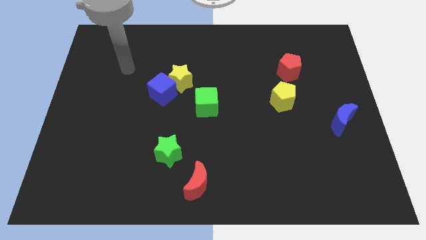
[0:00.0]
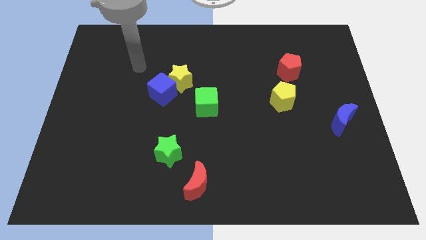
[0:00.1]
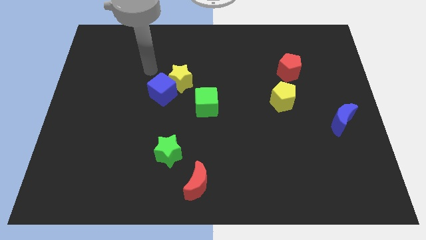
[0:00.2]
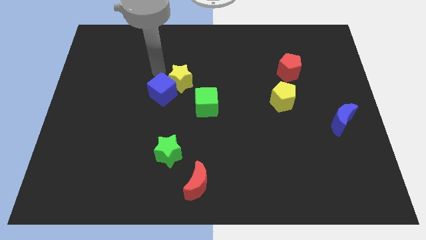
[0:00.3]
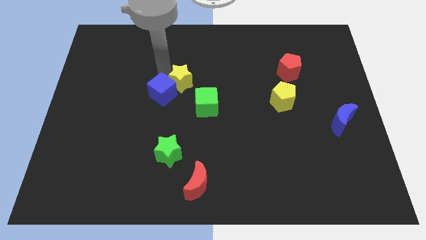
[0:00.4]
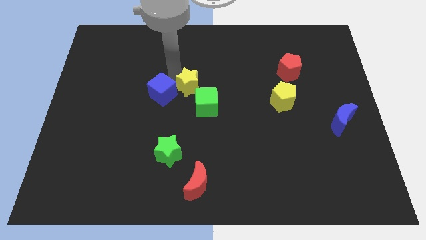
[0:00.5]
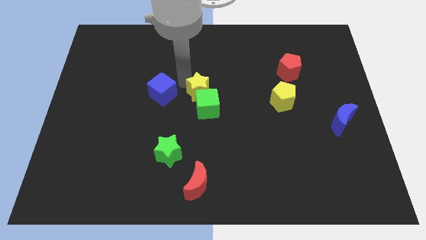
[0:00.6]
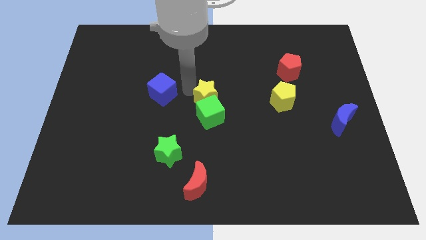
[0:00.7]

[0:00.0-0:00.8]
move the blue cube away from the yellow star

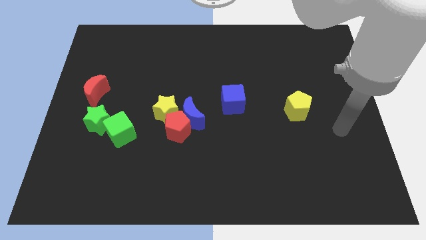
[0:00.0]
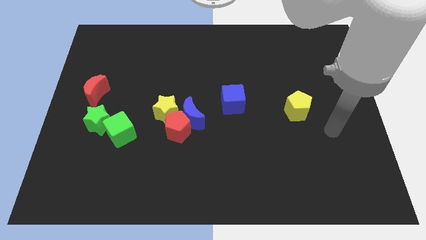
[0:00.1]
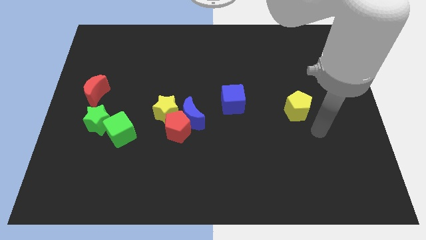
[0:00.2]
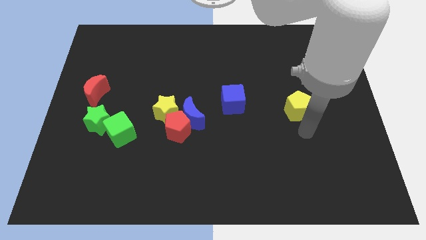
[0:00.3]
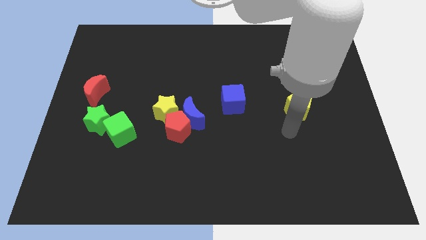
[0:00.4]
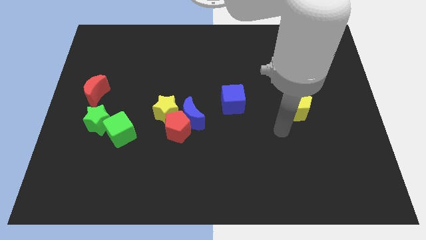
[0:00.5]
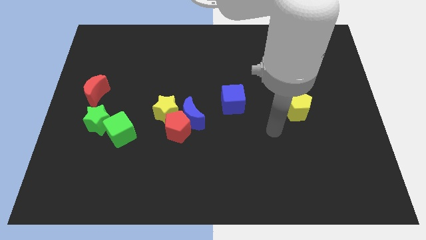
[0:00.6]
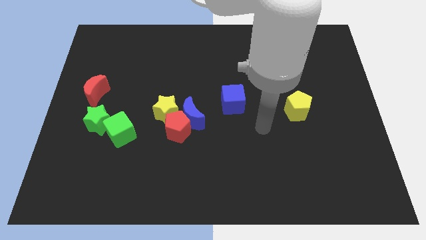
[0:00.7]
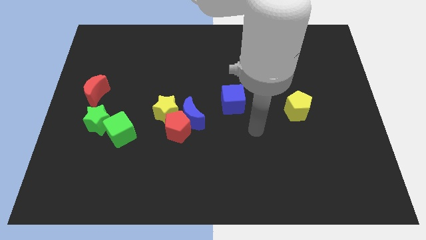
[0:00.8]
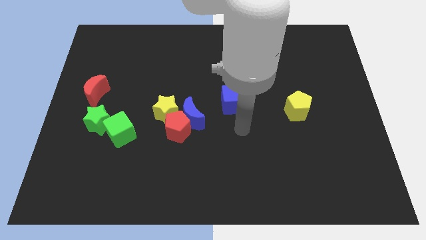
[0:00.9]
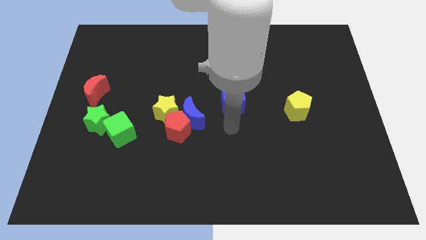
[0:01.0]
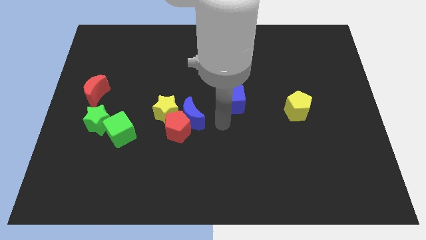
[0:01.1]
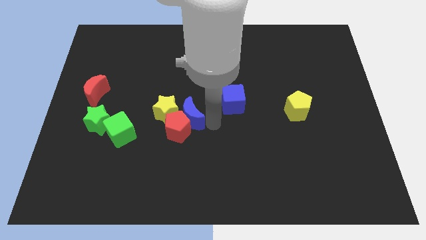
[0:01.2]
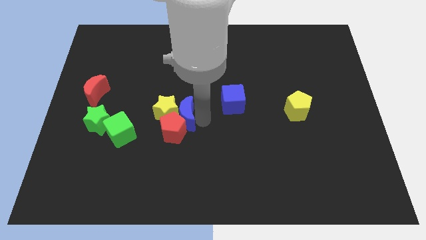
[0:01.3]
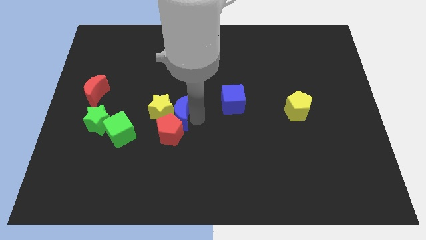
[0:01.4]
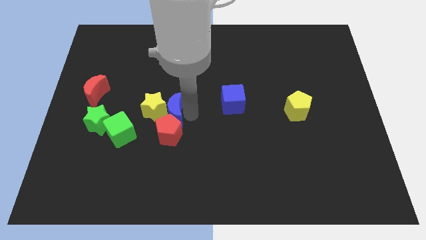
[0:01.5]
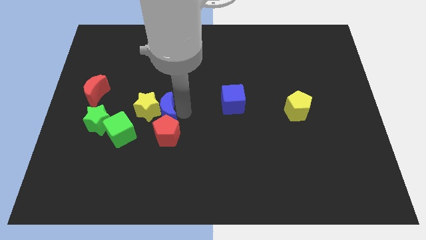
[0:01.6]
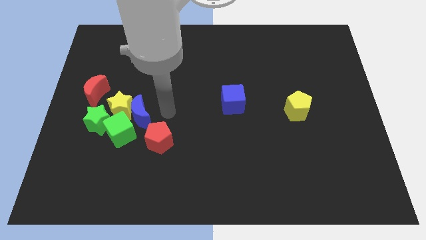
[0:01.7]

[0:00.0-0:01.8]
move the red pentagon away from the blue moon and yellow star

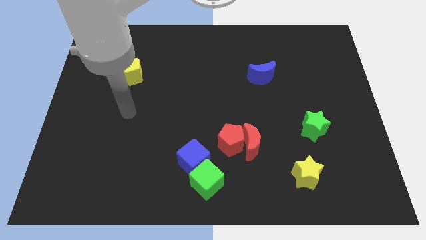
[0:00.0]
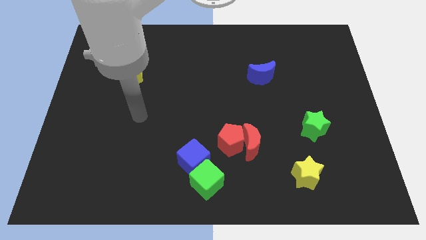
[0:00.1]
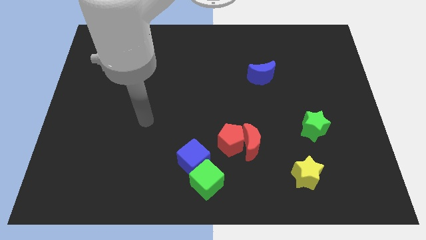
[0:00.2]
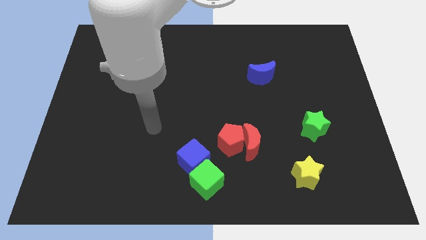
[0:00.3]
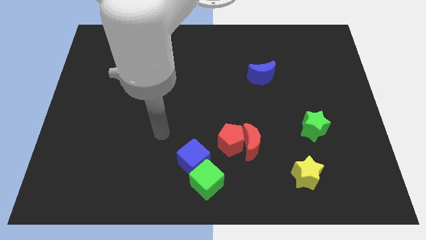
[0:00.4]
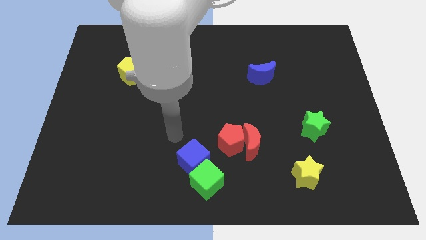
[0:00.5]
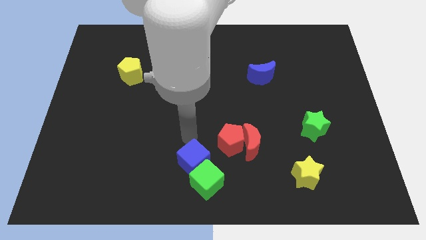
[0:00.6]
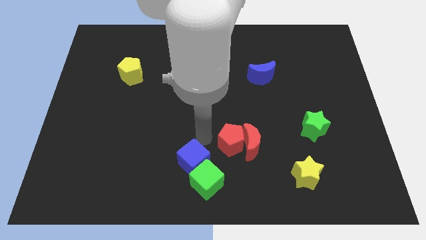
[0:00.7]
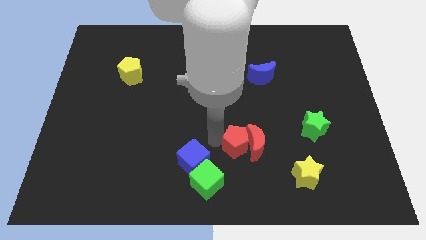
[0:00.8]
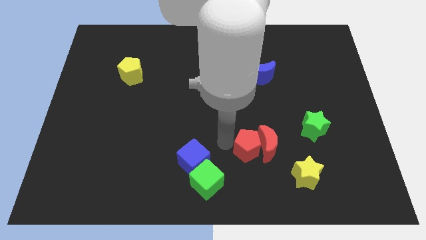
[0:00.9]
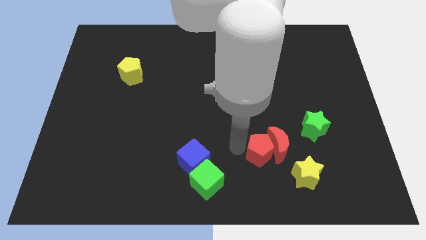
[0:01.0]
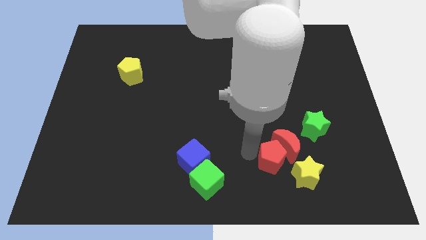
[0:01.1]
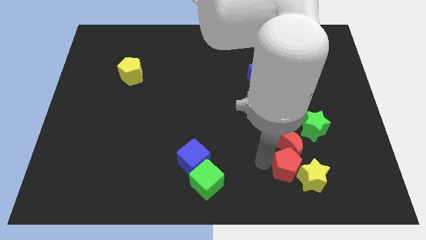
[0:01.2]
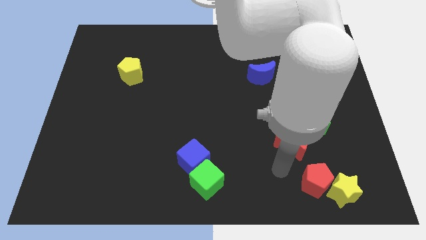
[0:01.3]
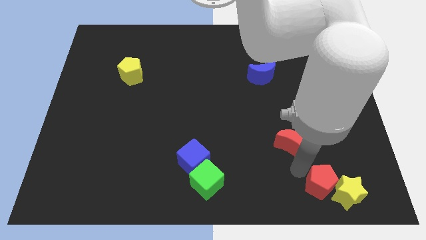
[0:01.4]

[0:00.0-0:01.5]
separate the red moon from the red pentagon

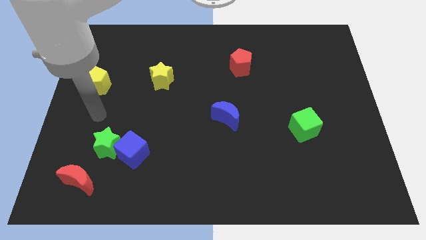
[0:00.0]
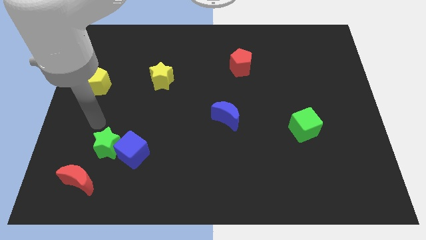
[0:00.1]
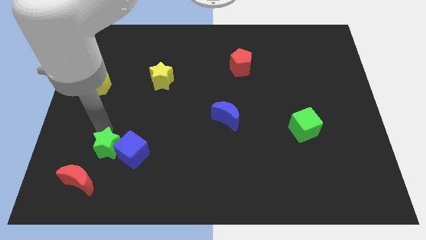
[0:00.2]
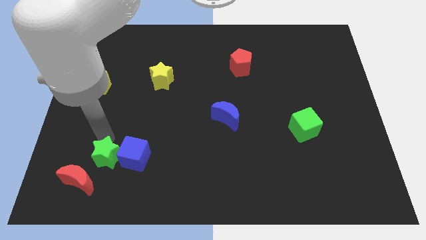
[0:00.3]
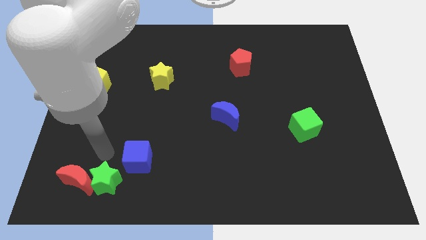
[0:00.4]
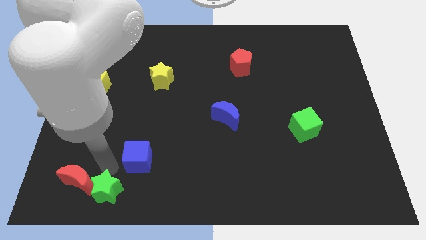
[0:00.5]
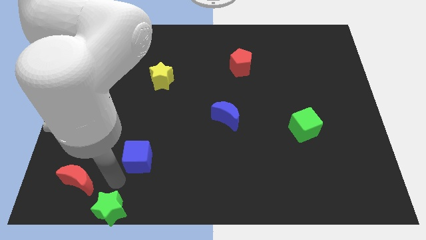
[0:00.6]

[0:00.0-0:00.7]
move the blue cube away from the green star

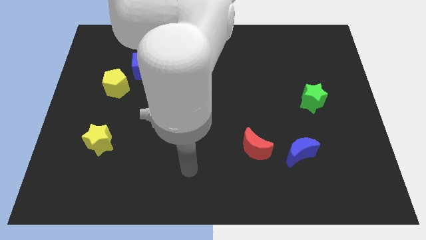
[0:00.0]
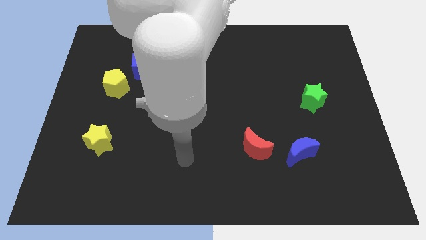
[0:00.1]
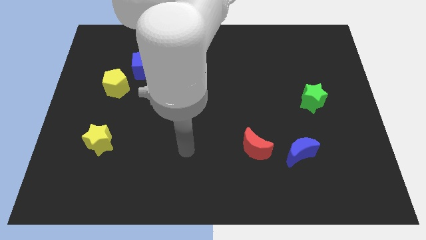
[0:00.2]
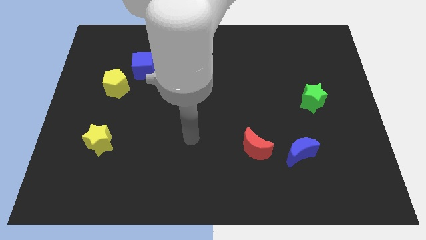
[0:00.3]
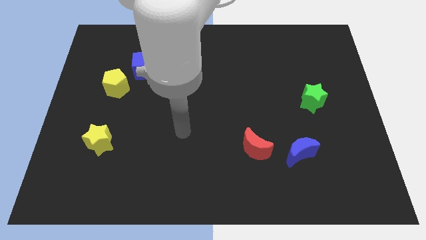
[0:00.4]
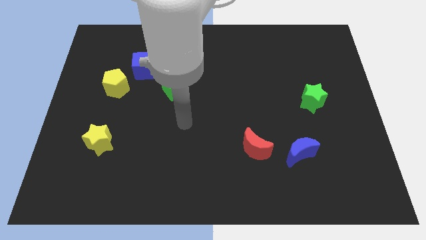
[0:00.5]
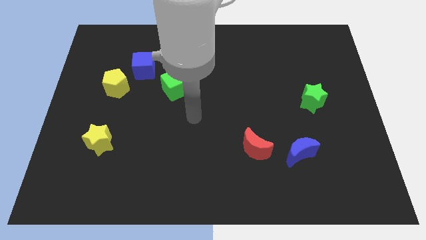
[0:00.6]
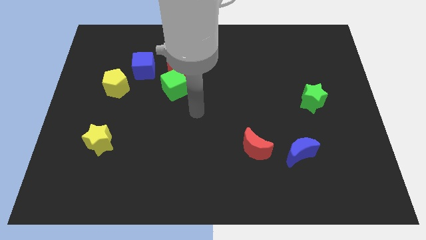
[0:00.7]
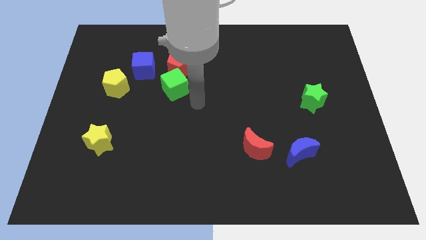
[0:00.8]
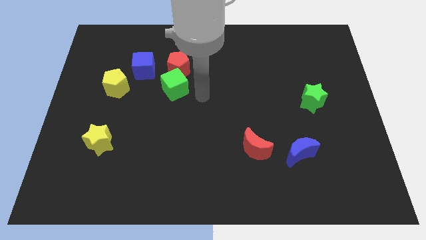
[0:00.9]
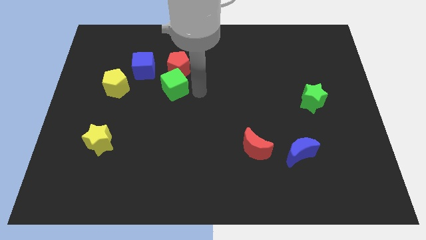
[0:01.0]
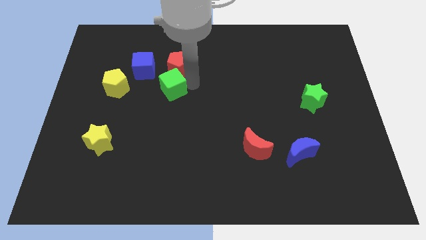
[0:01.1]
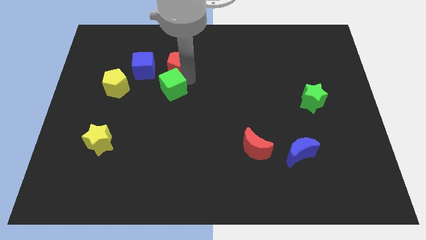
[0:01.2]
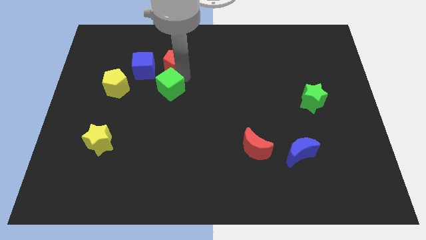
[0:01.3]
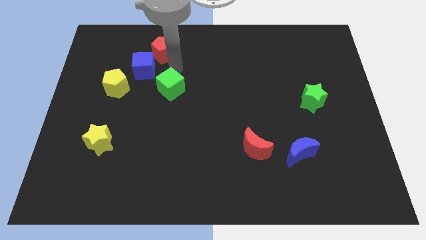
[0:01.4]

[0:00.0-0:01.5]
move the green cube away from the red pentagon

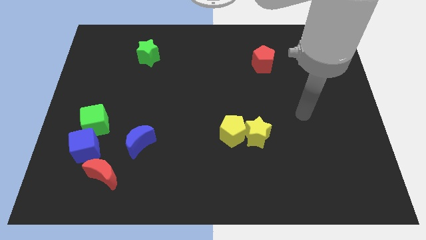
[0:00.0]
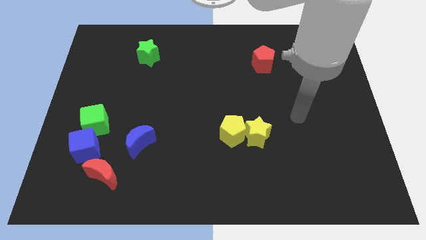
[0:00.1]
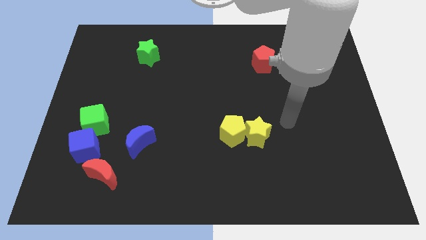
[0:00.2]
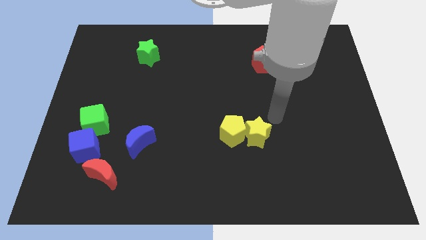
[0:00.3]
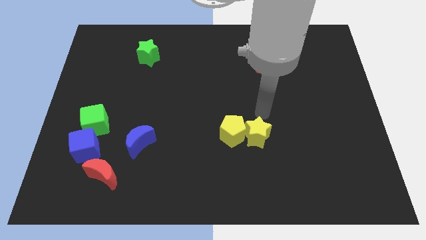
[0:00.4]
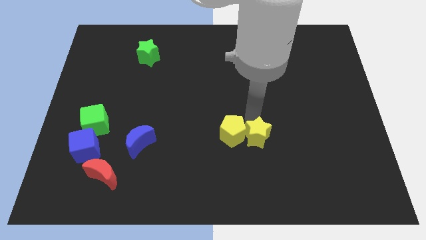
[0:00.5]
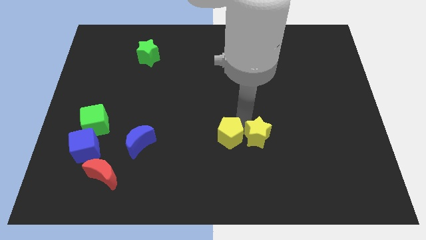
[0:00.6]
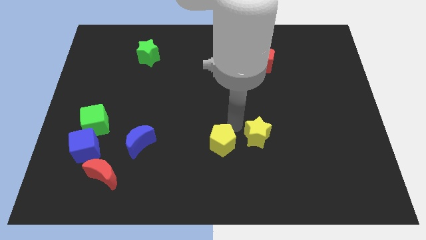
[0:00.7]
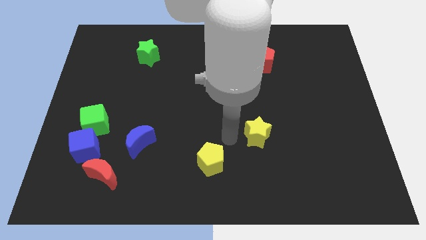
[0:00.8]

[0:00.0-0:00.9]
separate the yellow star from the yellow pentagon

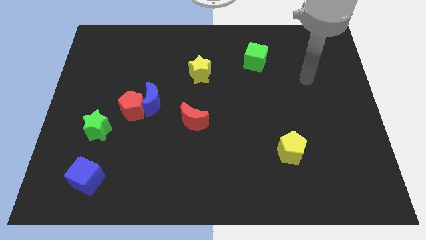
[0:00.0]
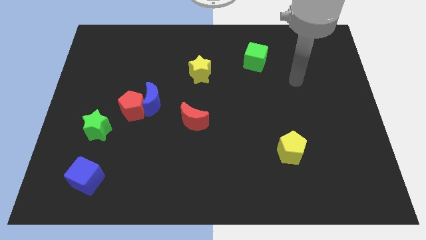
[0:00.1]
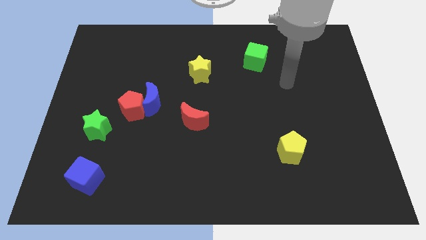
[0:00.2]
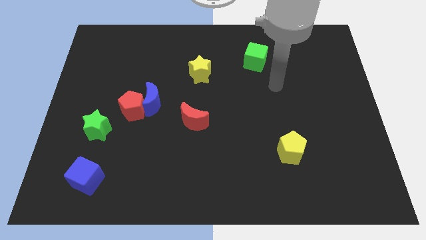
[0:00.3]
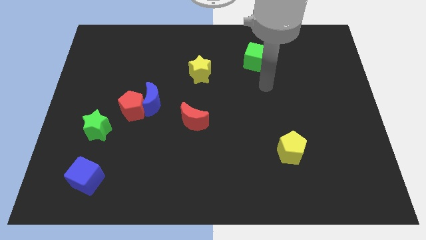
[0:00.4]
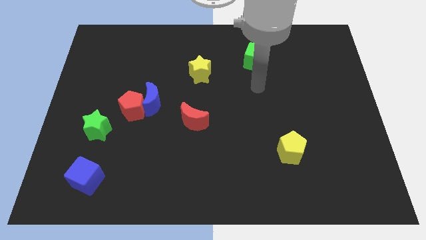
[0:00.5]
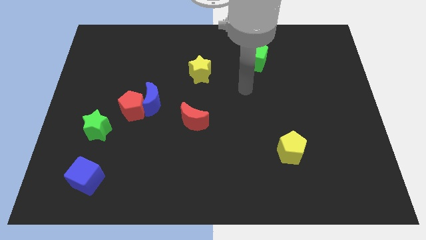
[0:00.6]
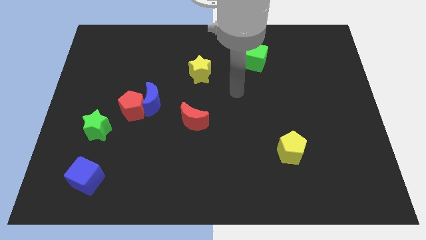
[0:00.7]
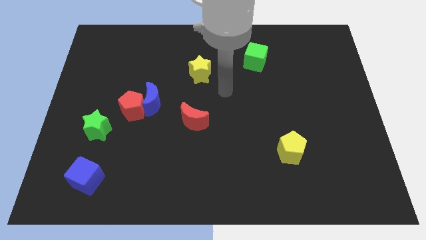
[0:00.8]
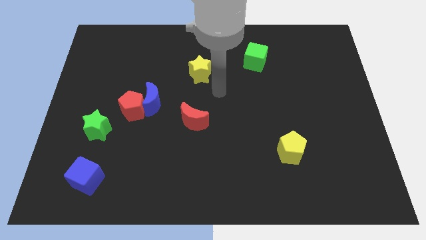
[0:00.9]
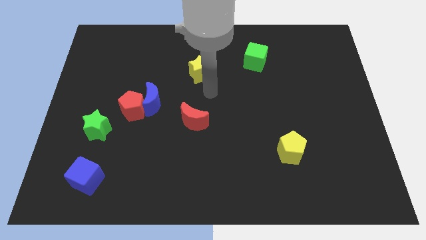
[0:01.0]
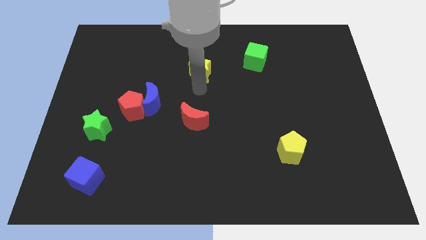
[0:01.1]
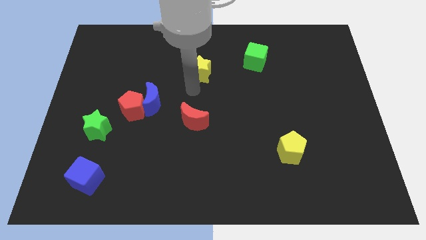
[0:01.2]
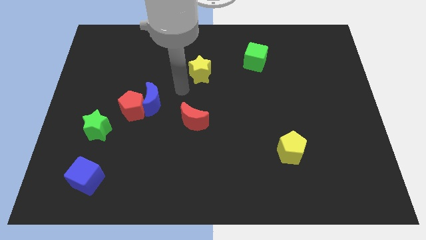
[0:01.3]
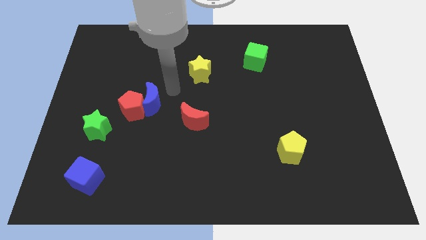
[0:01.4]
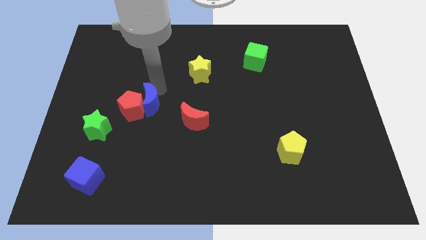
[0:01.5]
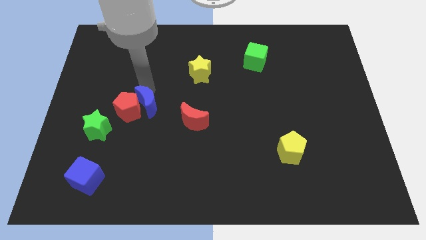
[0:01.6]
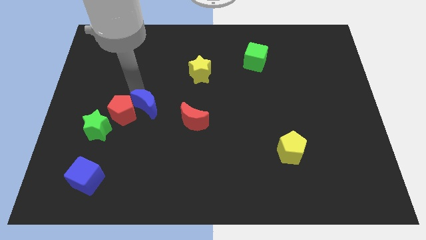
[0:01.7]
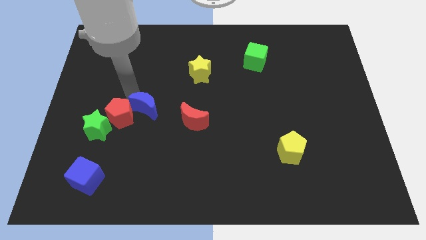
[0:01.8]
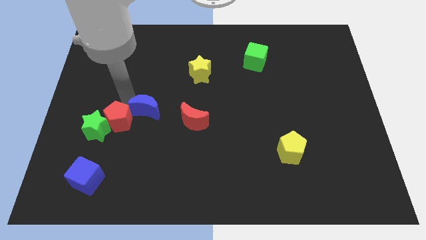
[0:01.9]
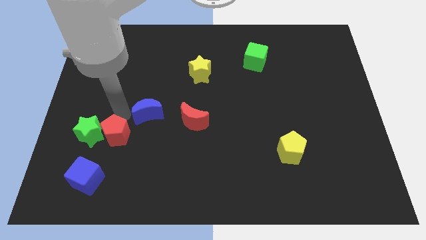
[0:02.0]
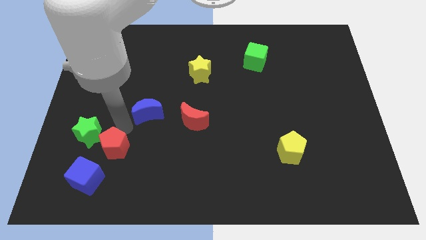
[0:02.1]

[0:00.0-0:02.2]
pull the blue moon apart from the red pentagon
